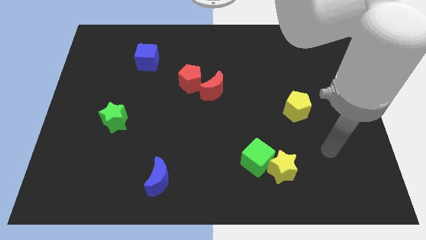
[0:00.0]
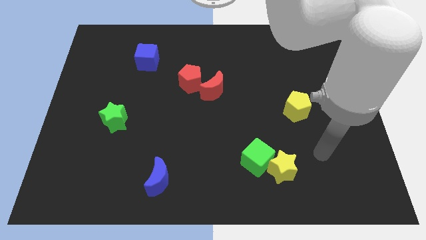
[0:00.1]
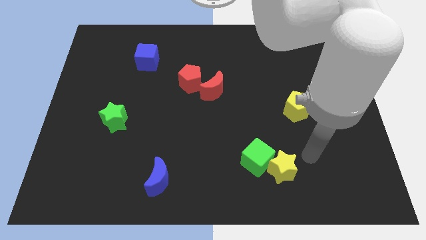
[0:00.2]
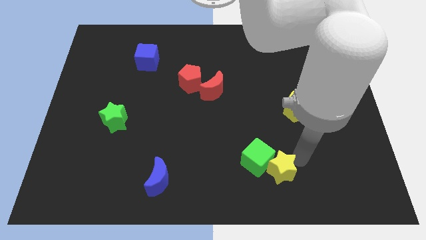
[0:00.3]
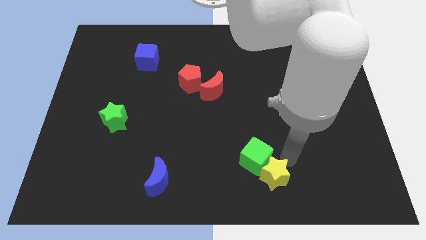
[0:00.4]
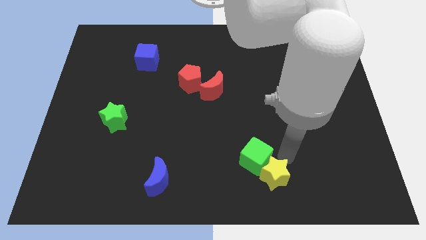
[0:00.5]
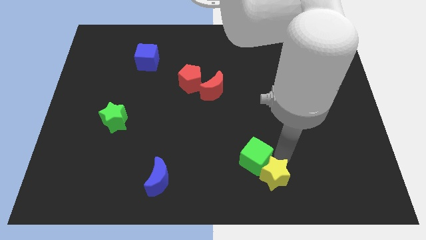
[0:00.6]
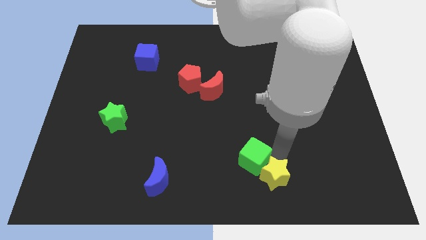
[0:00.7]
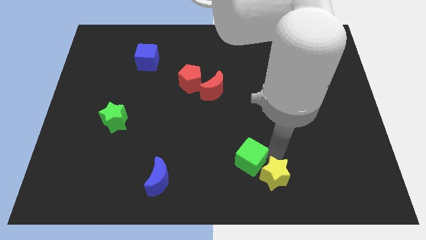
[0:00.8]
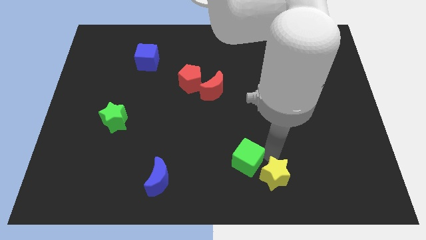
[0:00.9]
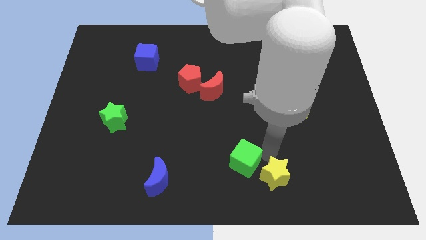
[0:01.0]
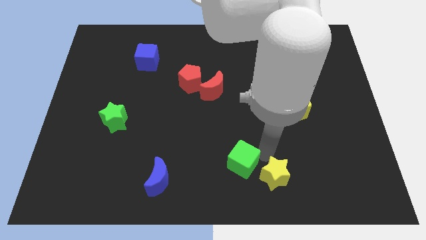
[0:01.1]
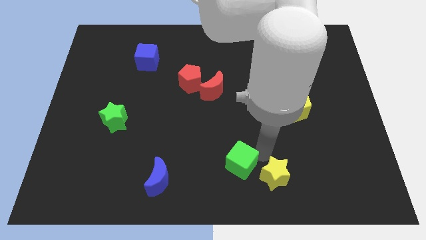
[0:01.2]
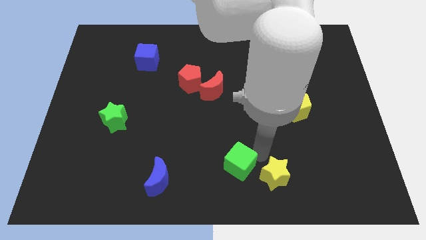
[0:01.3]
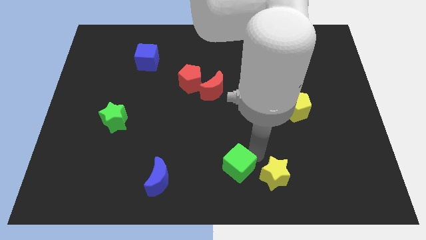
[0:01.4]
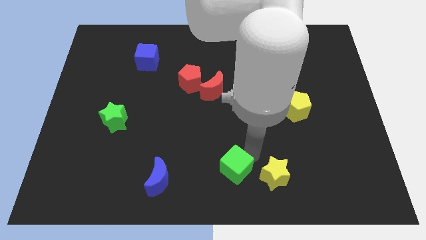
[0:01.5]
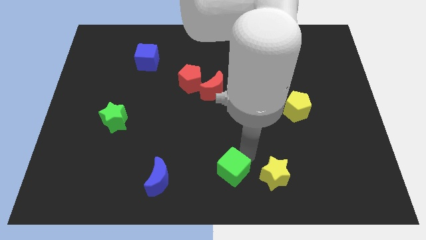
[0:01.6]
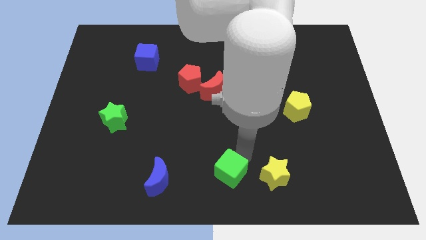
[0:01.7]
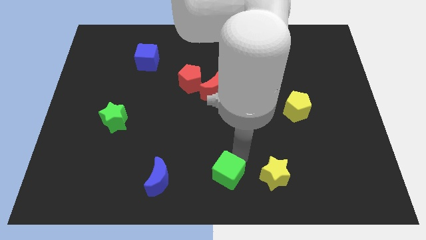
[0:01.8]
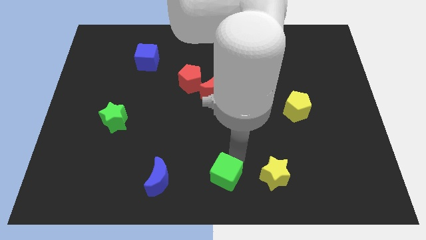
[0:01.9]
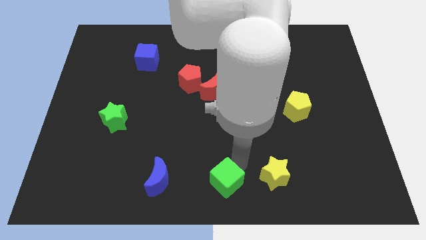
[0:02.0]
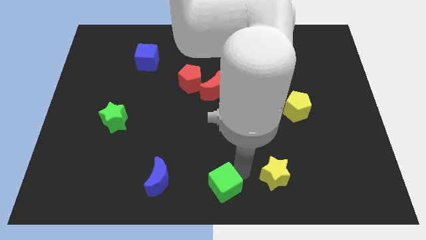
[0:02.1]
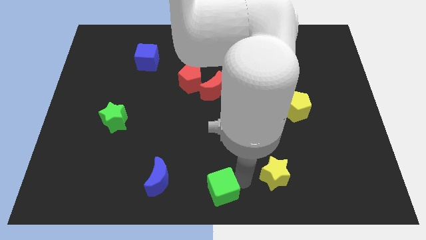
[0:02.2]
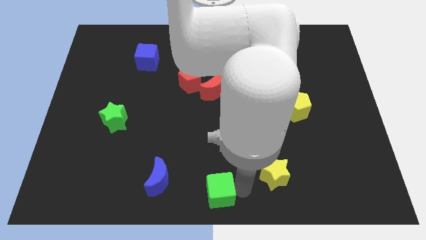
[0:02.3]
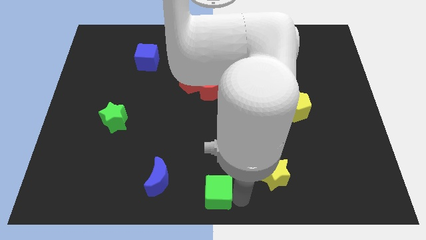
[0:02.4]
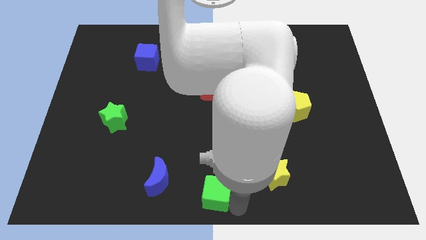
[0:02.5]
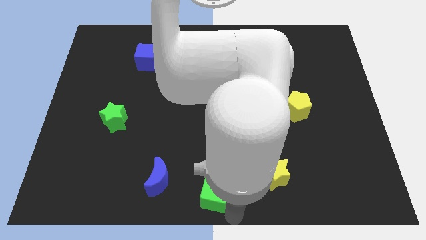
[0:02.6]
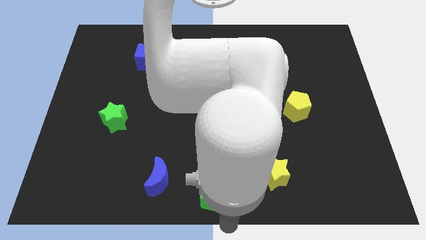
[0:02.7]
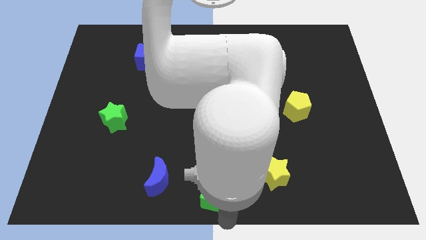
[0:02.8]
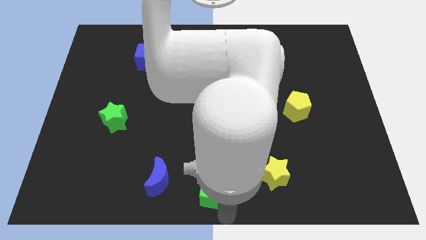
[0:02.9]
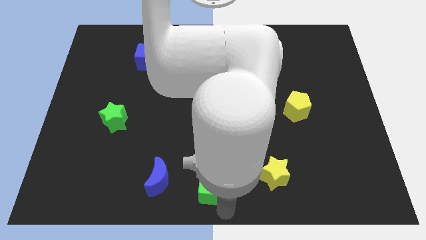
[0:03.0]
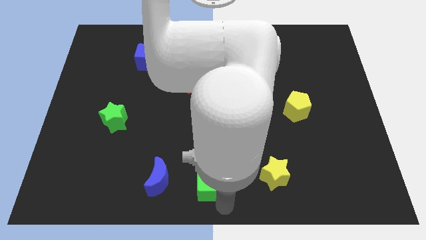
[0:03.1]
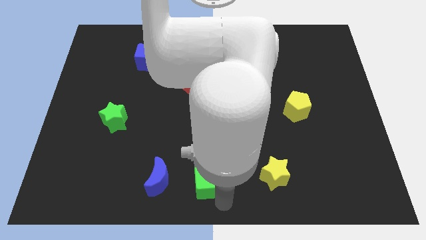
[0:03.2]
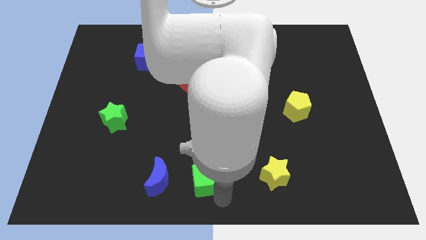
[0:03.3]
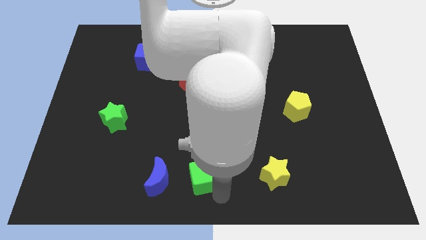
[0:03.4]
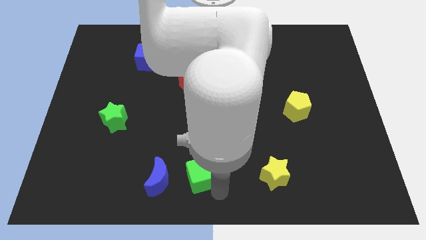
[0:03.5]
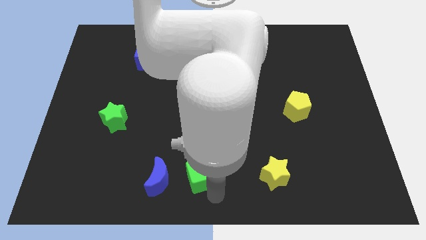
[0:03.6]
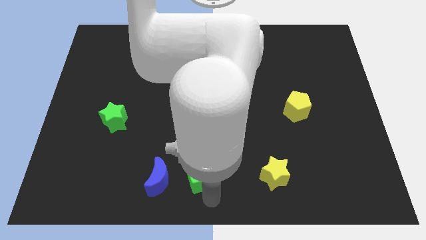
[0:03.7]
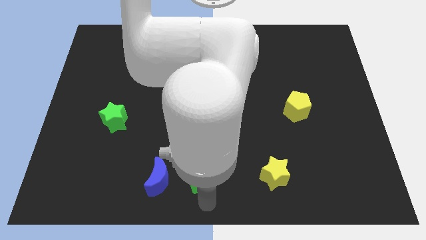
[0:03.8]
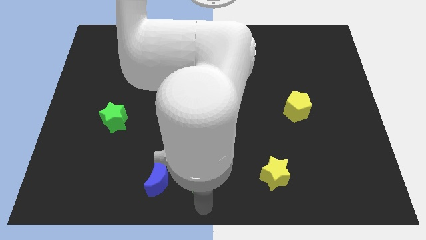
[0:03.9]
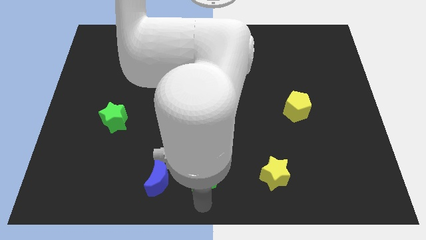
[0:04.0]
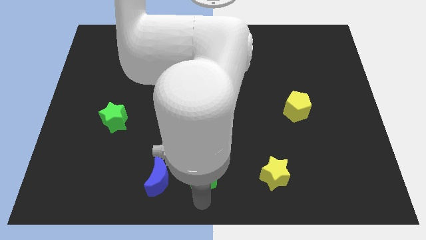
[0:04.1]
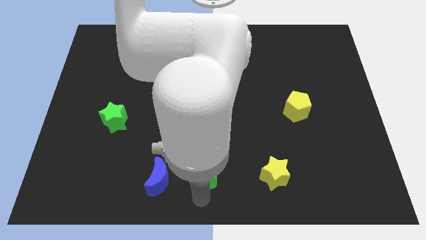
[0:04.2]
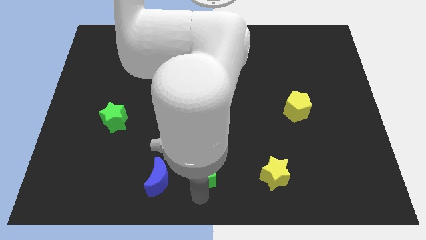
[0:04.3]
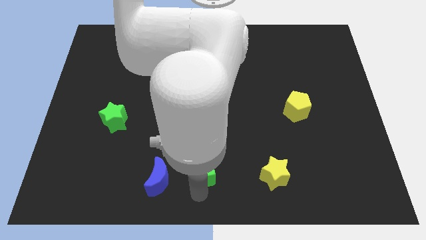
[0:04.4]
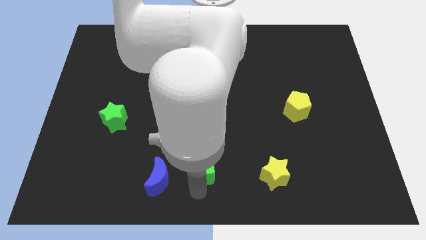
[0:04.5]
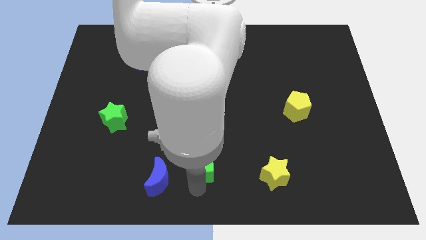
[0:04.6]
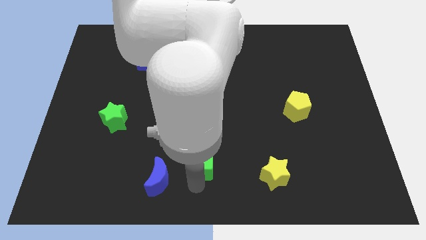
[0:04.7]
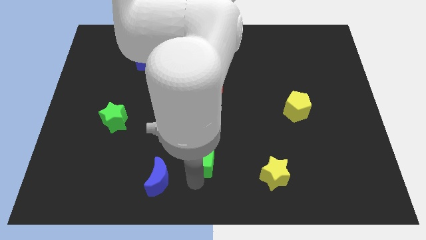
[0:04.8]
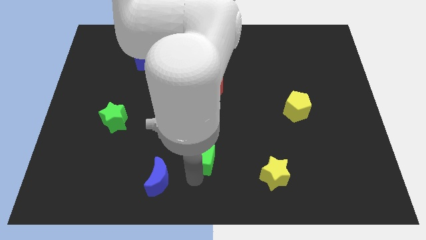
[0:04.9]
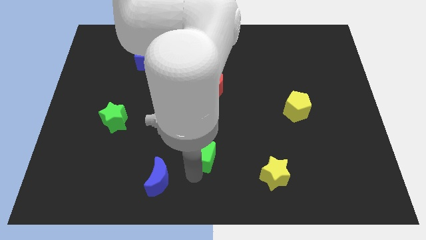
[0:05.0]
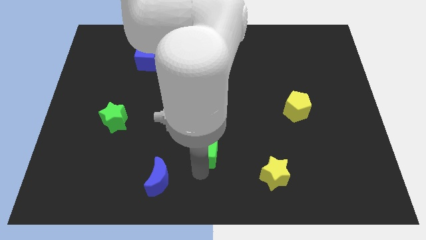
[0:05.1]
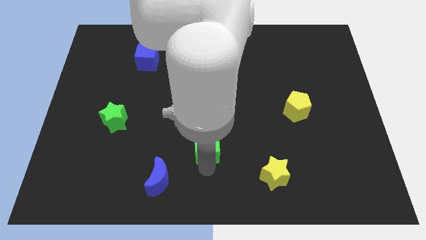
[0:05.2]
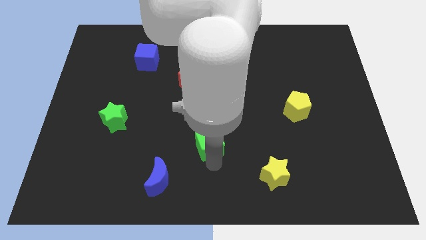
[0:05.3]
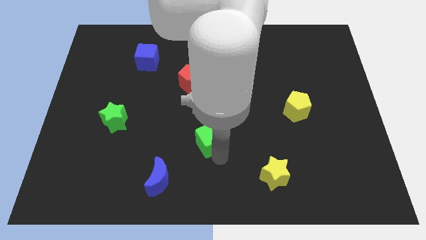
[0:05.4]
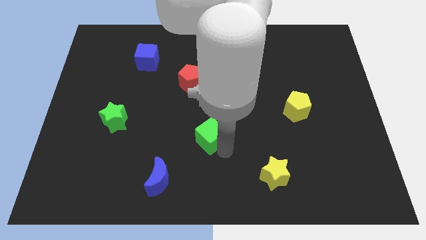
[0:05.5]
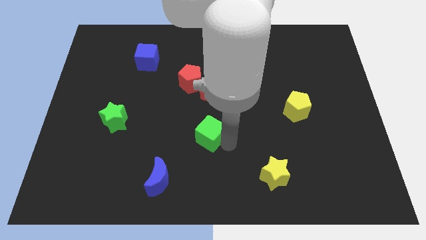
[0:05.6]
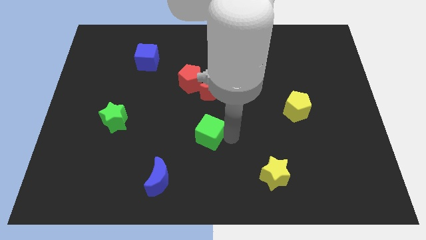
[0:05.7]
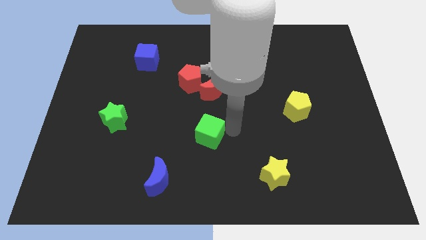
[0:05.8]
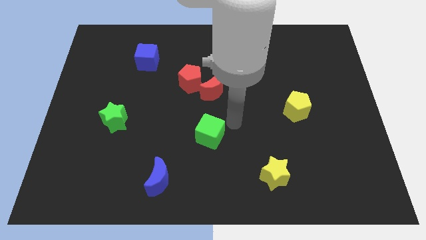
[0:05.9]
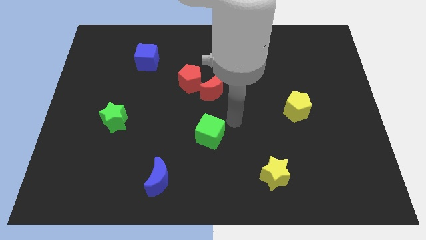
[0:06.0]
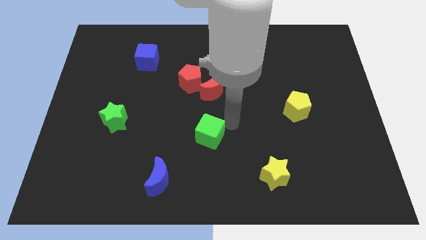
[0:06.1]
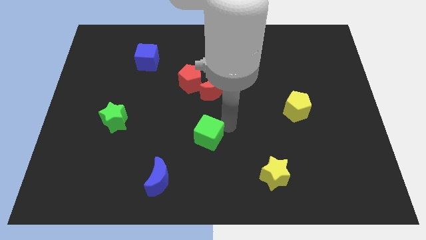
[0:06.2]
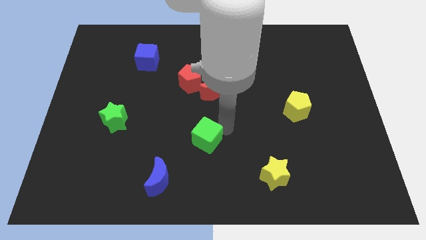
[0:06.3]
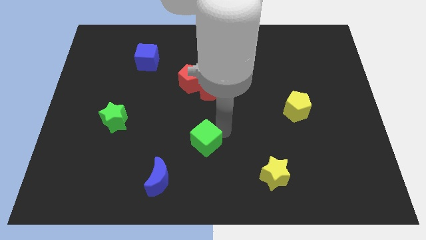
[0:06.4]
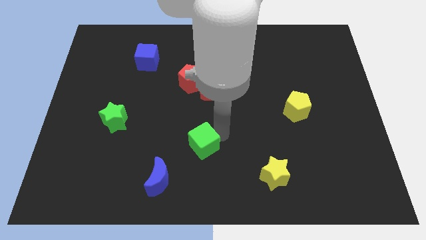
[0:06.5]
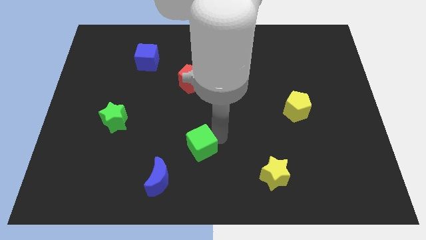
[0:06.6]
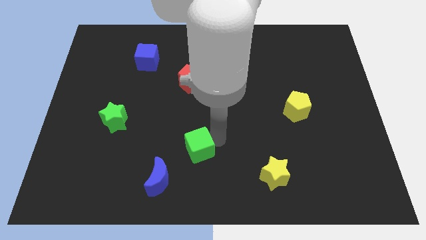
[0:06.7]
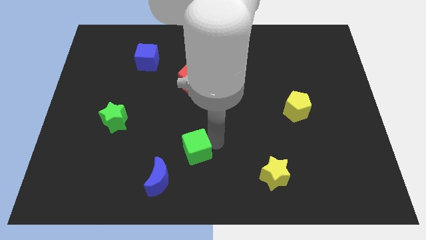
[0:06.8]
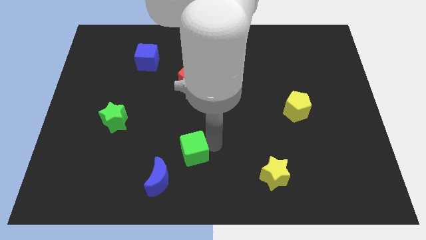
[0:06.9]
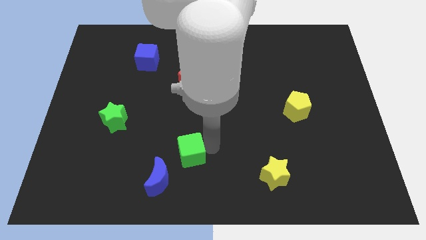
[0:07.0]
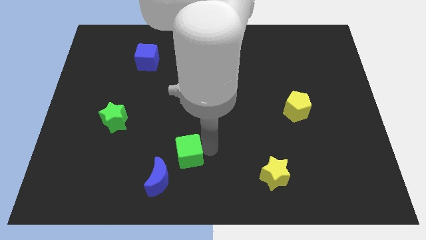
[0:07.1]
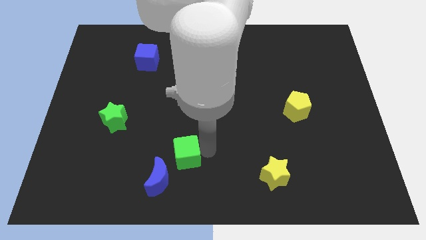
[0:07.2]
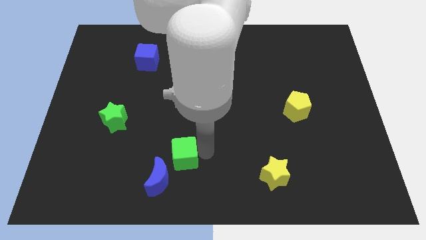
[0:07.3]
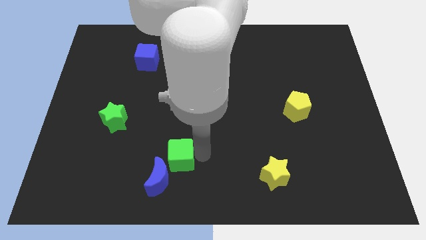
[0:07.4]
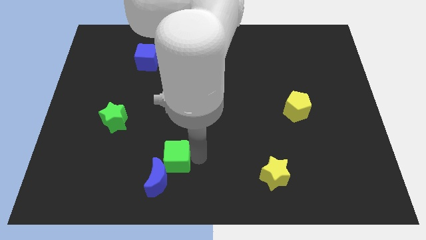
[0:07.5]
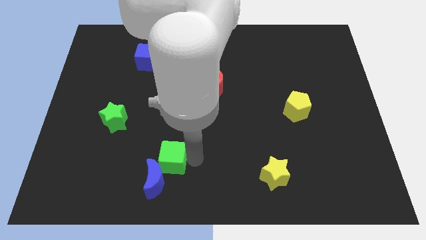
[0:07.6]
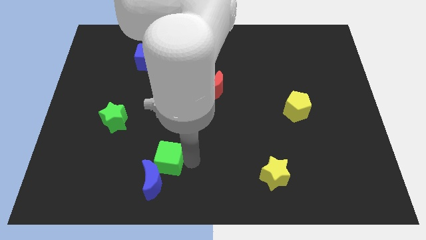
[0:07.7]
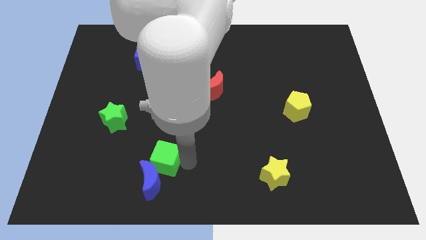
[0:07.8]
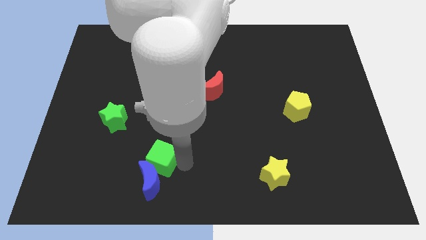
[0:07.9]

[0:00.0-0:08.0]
slide the green cube left
